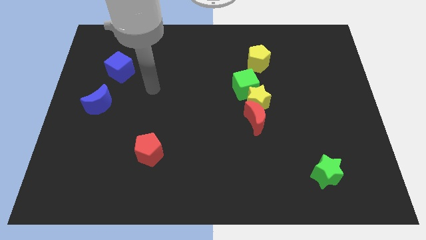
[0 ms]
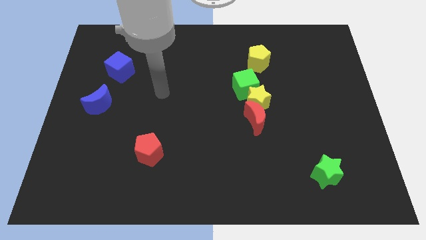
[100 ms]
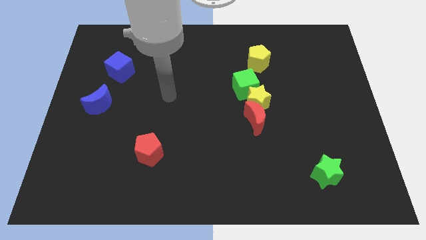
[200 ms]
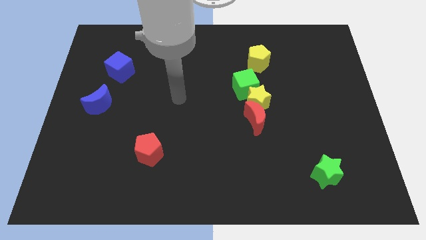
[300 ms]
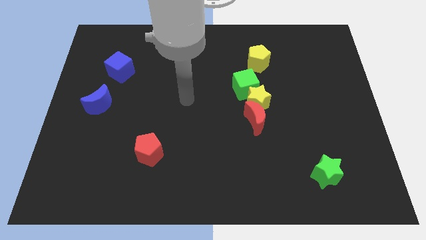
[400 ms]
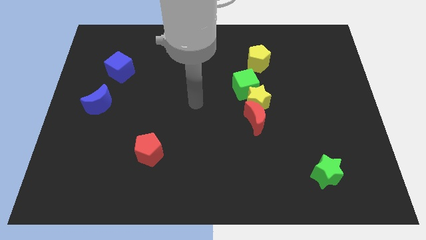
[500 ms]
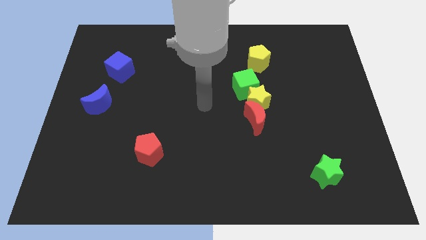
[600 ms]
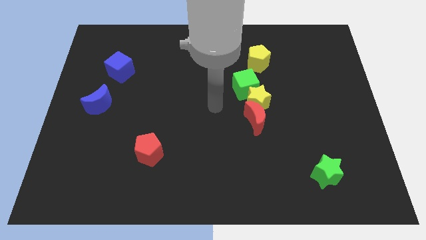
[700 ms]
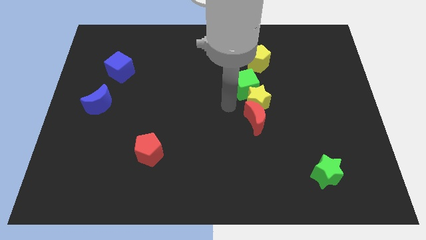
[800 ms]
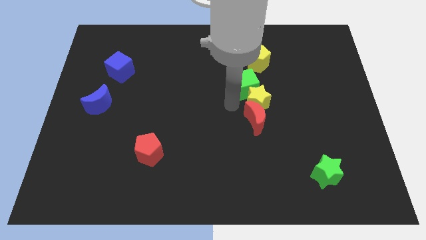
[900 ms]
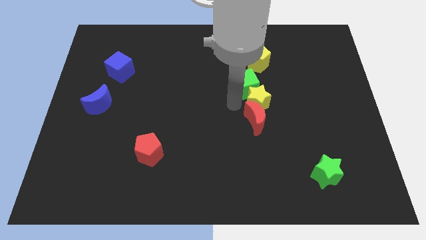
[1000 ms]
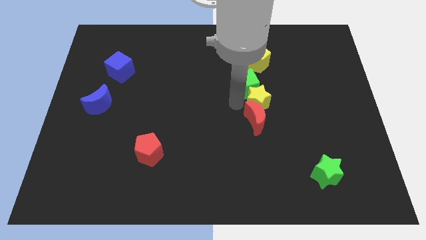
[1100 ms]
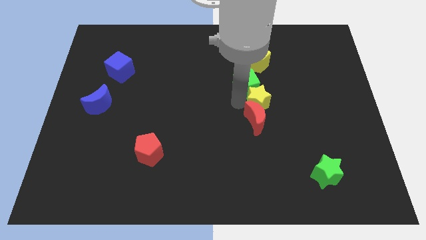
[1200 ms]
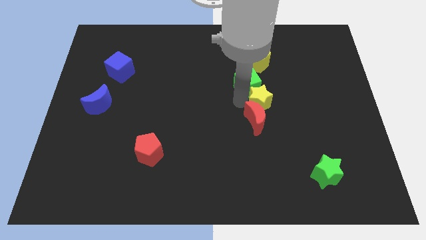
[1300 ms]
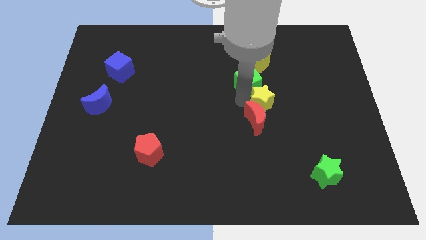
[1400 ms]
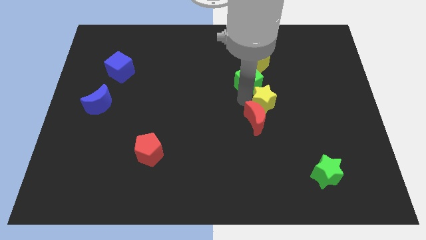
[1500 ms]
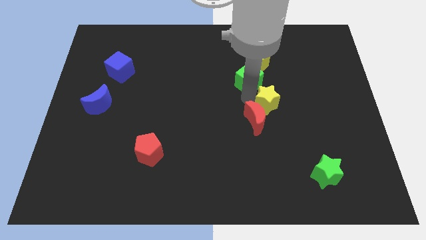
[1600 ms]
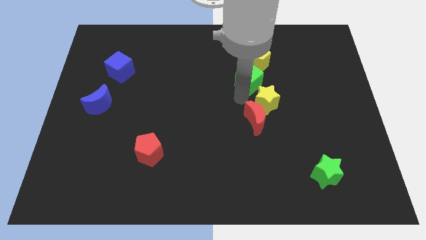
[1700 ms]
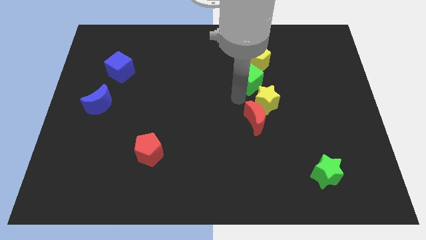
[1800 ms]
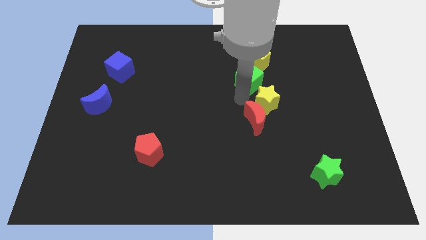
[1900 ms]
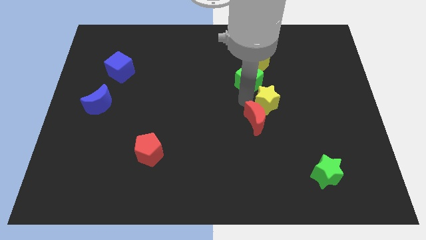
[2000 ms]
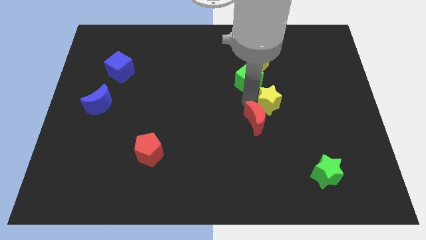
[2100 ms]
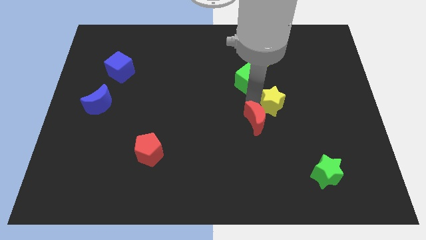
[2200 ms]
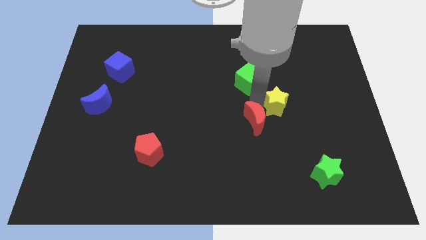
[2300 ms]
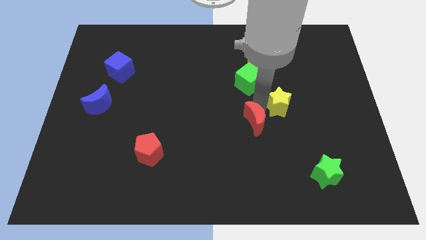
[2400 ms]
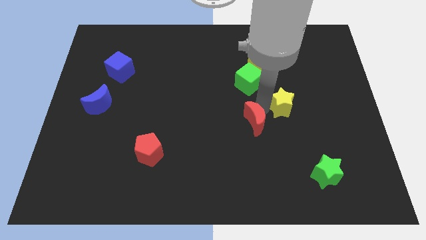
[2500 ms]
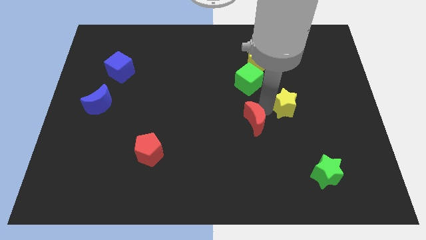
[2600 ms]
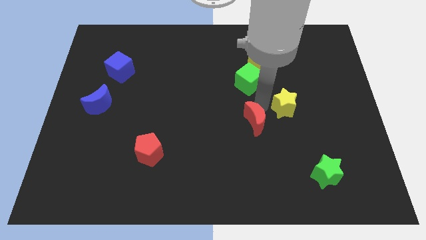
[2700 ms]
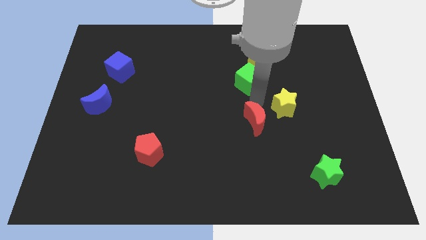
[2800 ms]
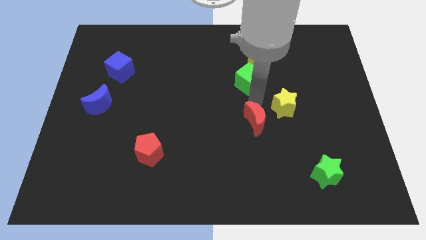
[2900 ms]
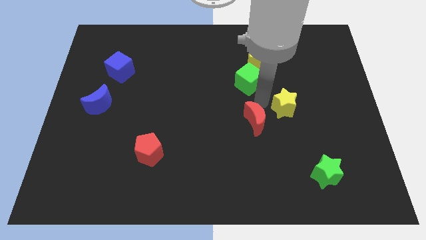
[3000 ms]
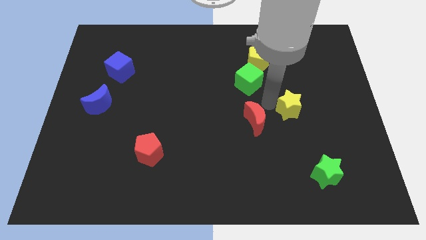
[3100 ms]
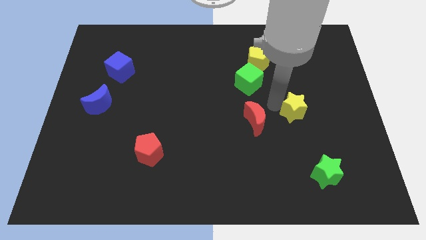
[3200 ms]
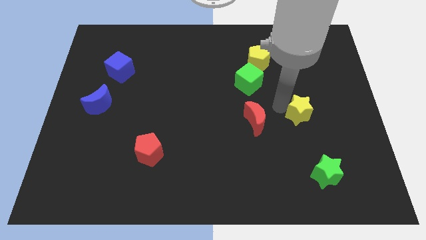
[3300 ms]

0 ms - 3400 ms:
separate the yellow star from the red moon and green cube

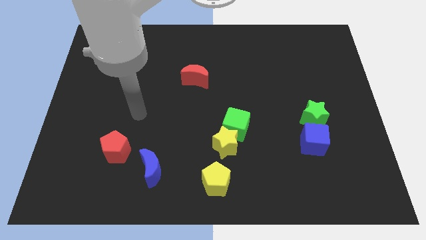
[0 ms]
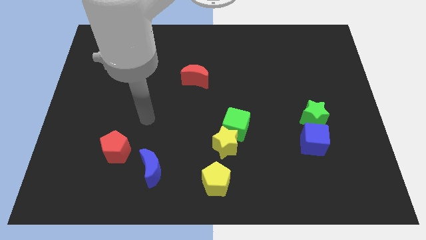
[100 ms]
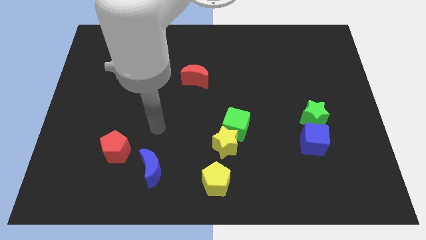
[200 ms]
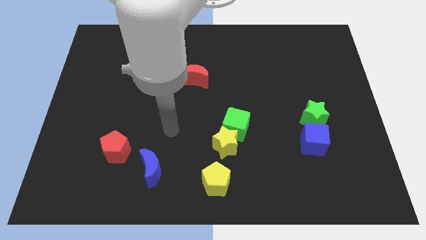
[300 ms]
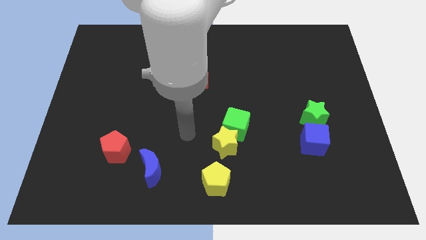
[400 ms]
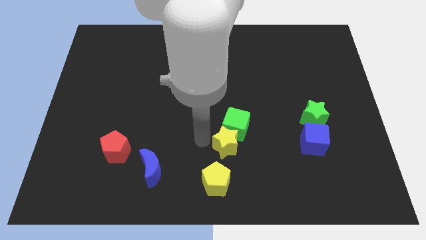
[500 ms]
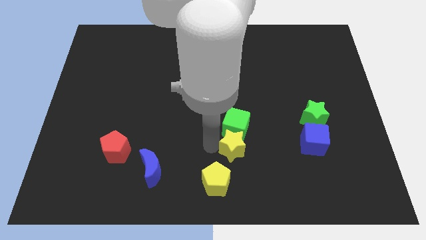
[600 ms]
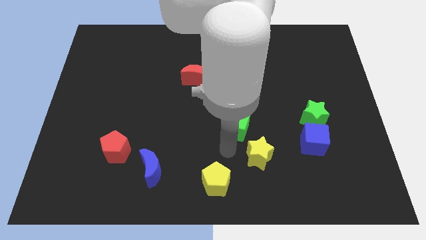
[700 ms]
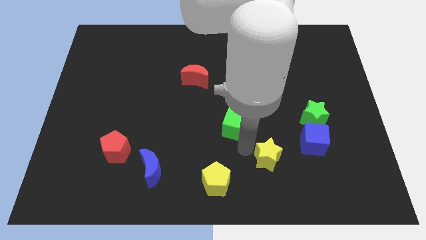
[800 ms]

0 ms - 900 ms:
separate the green cube from the yellow star

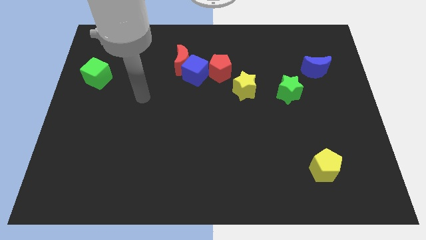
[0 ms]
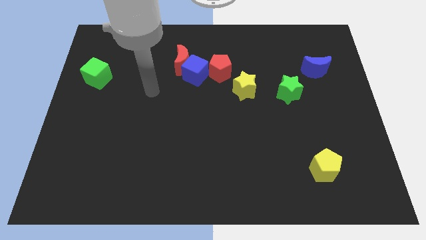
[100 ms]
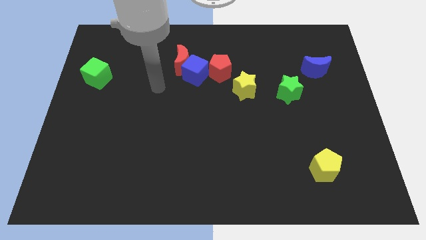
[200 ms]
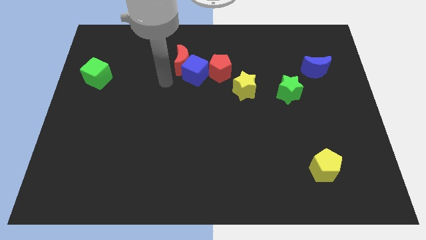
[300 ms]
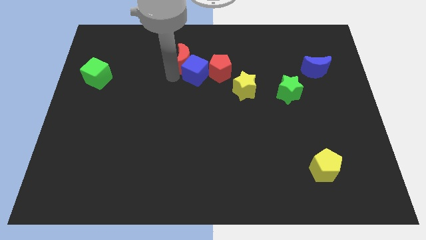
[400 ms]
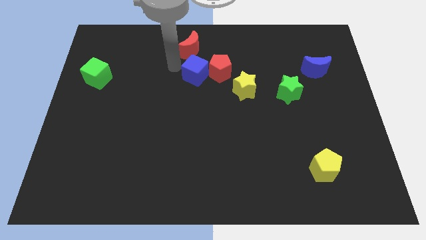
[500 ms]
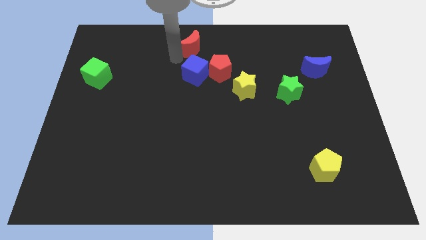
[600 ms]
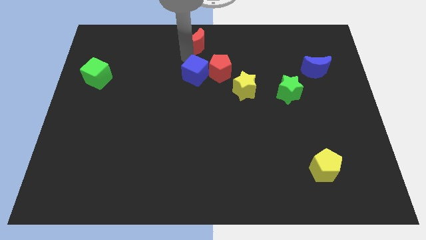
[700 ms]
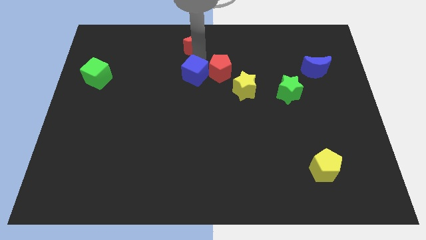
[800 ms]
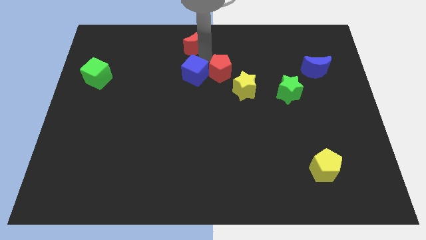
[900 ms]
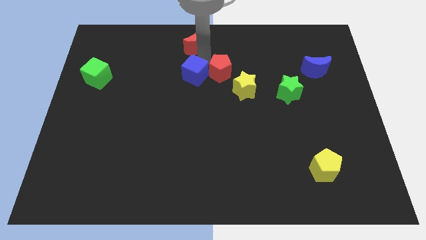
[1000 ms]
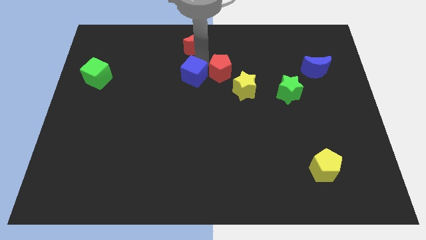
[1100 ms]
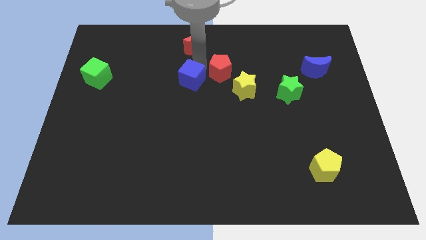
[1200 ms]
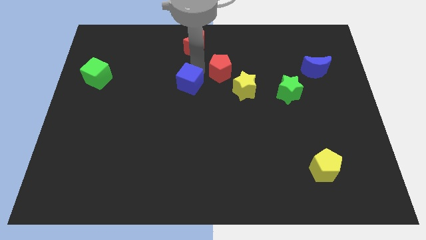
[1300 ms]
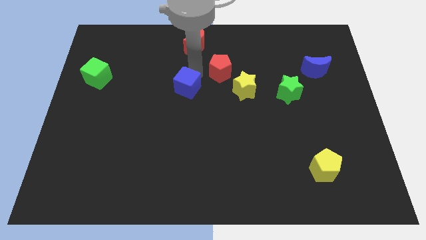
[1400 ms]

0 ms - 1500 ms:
separate the blue cube from the red moon and red pentagon

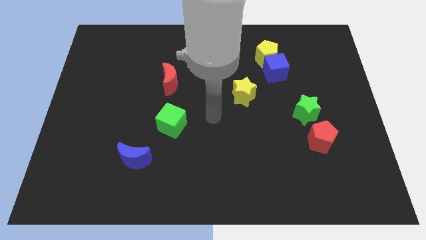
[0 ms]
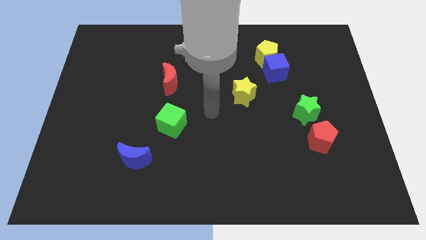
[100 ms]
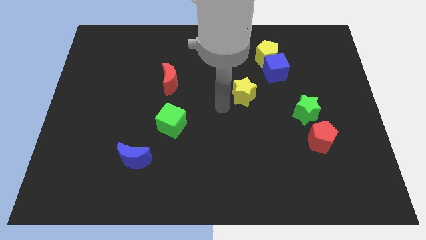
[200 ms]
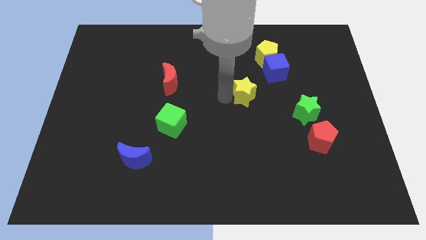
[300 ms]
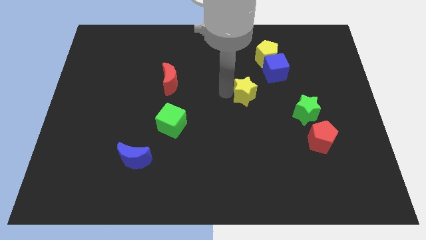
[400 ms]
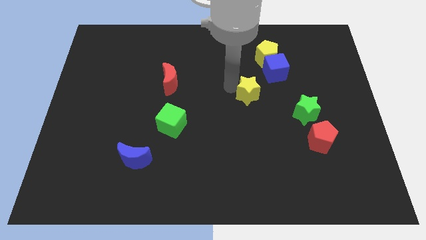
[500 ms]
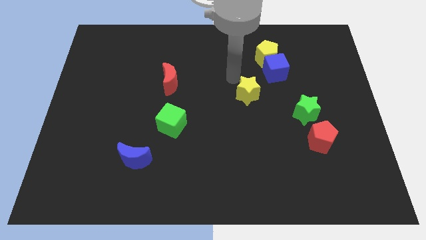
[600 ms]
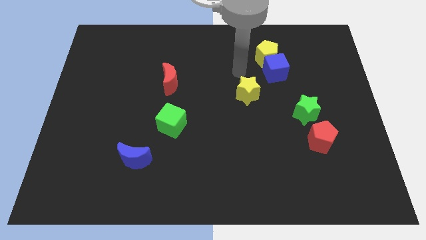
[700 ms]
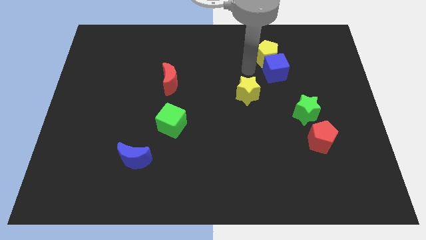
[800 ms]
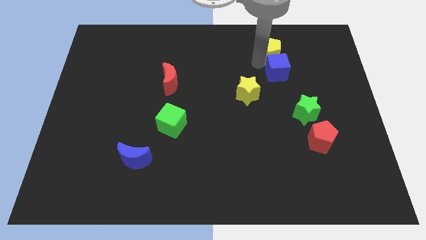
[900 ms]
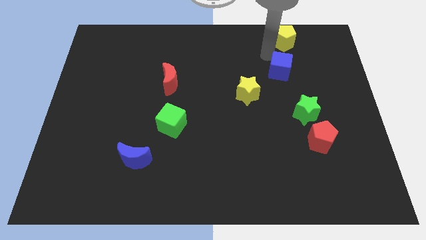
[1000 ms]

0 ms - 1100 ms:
separate the blue cube from the yellow pentagon

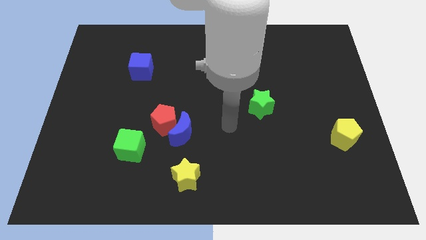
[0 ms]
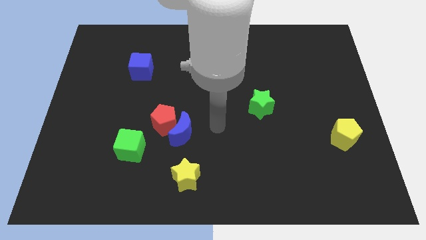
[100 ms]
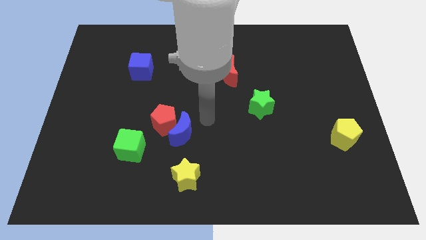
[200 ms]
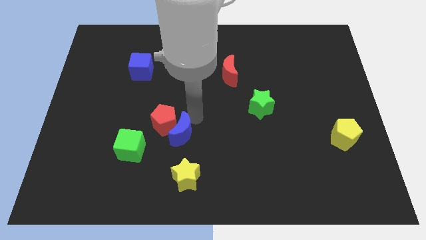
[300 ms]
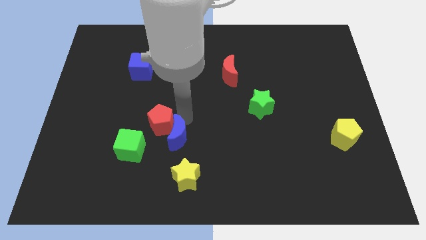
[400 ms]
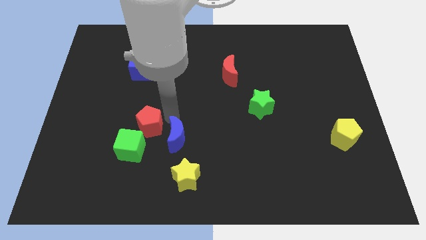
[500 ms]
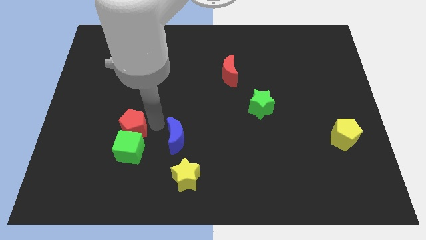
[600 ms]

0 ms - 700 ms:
move the blue moon away from the red pentagon

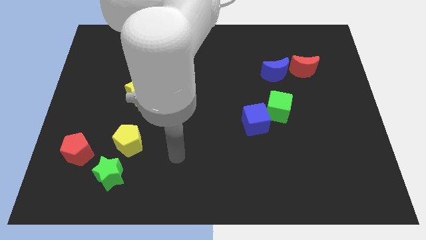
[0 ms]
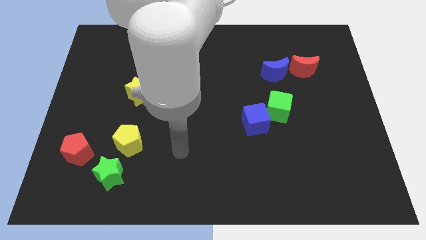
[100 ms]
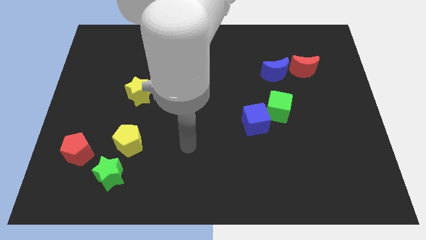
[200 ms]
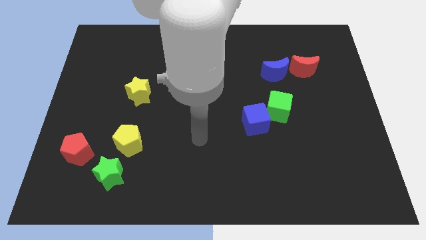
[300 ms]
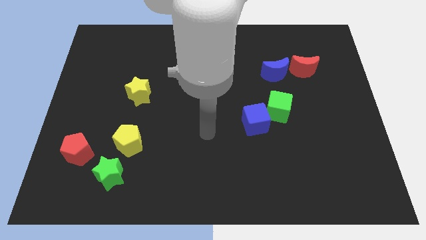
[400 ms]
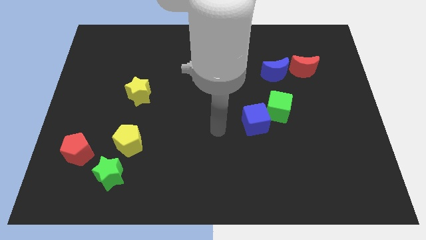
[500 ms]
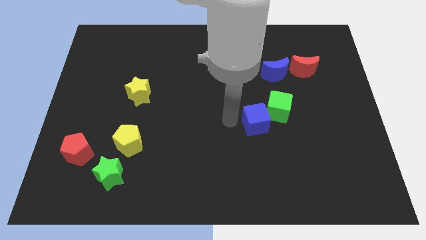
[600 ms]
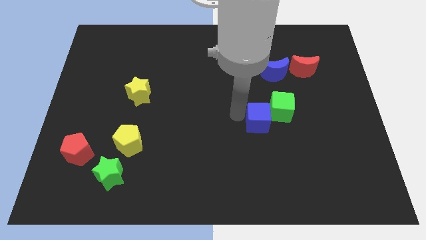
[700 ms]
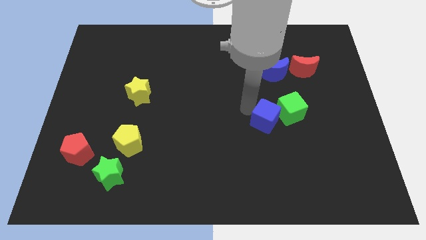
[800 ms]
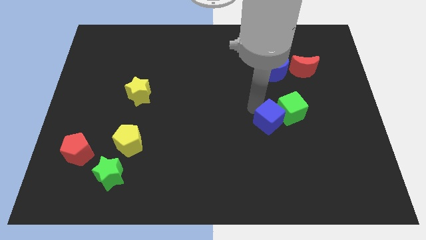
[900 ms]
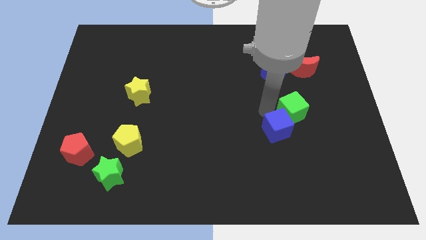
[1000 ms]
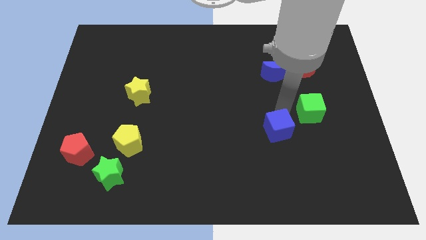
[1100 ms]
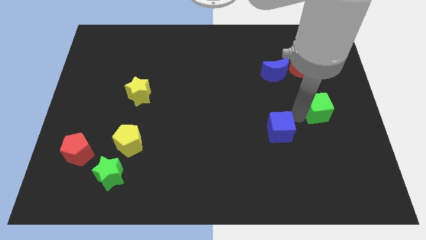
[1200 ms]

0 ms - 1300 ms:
move the blue cube away from the green cube

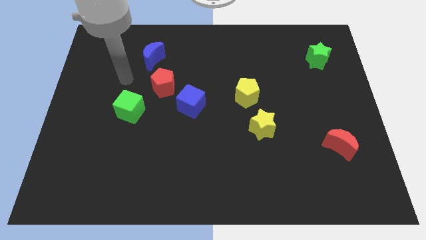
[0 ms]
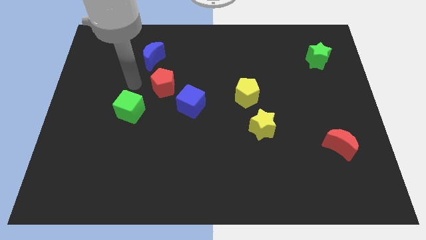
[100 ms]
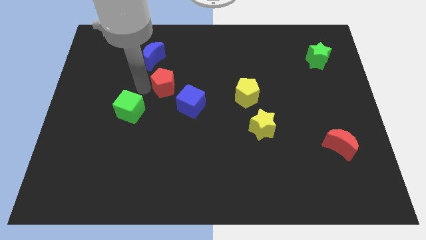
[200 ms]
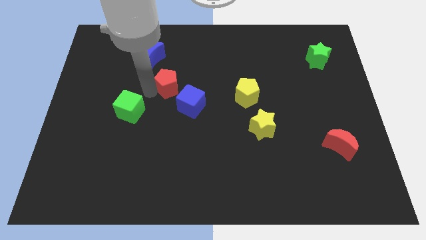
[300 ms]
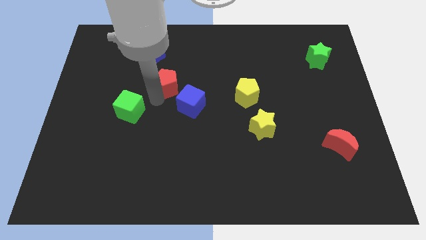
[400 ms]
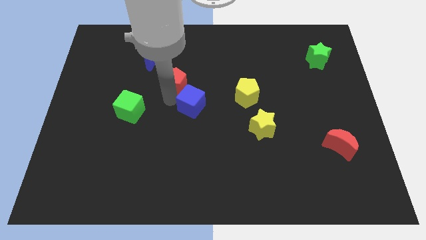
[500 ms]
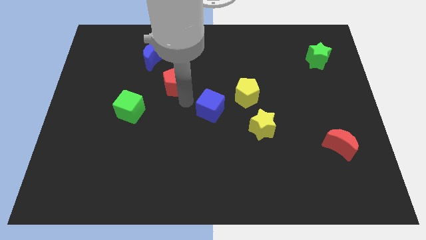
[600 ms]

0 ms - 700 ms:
separate the red pentagon from the blue cube
